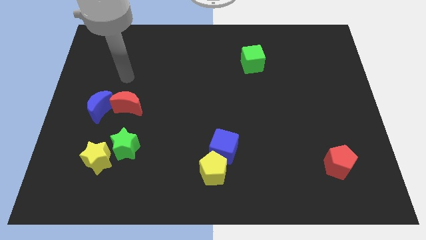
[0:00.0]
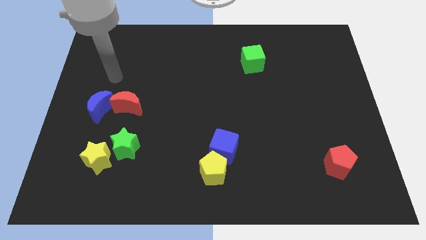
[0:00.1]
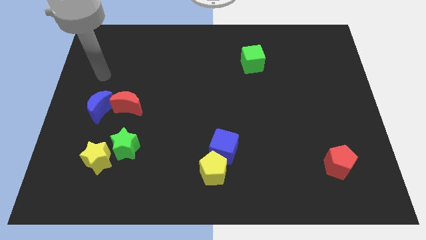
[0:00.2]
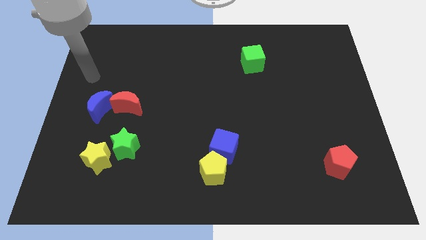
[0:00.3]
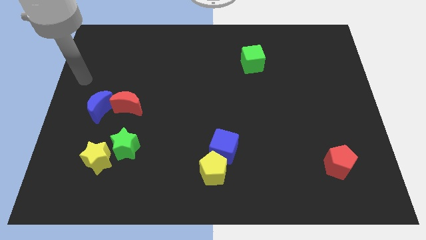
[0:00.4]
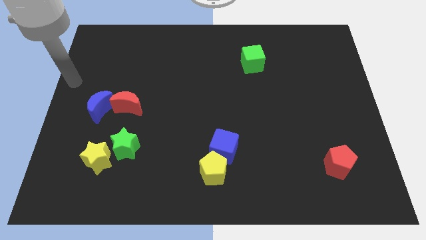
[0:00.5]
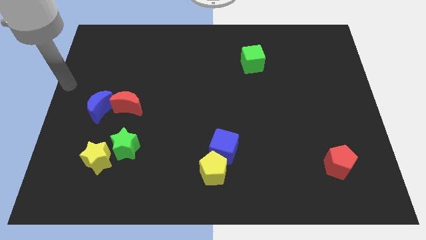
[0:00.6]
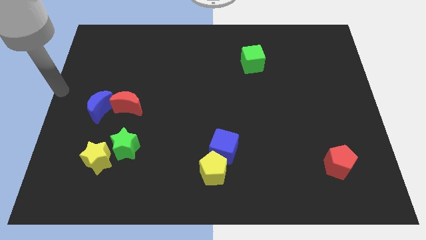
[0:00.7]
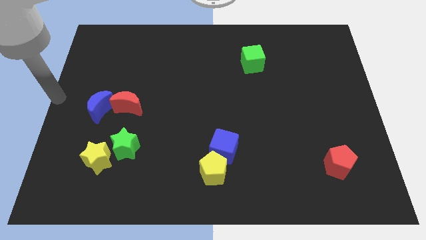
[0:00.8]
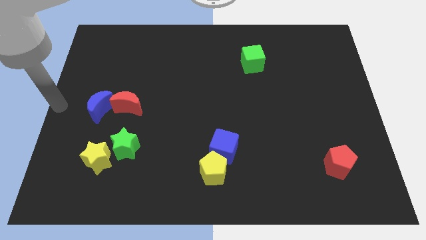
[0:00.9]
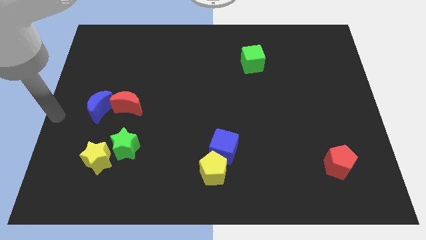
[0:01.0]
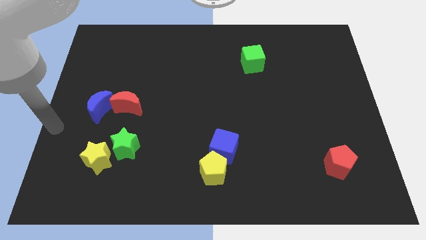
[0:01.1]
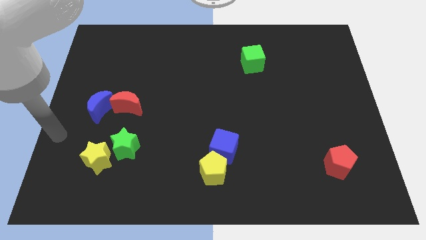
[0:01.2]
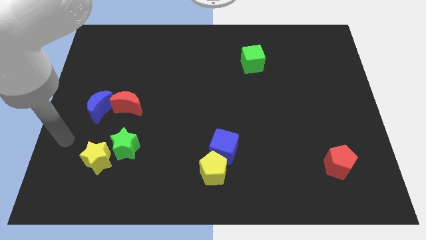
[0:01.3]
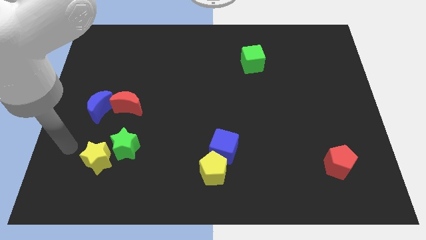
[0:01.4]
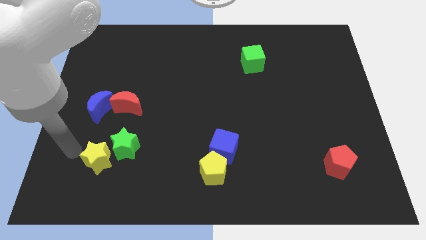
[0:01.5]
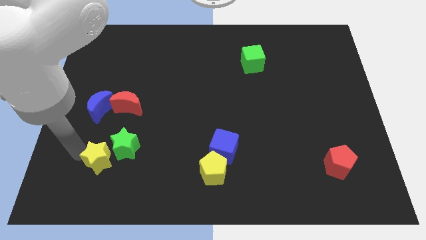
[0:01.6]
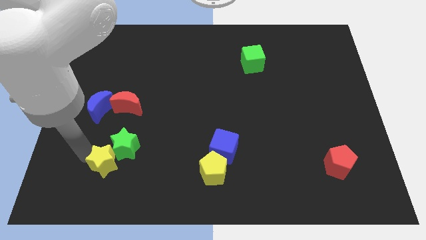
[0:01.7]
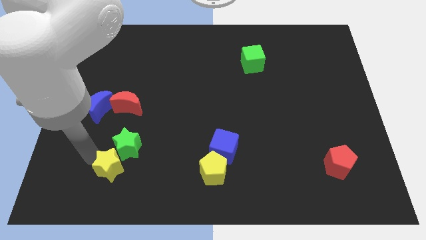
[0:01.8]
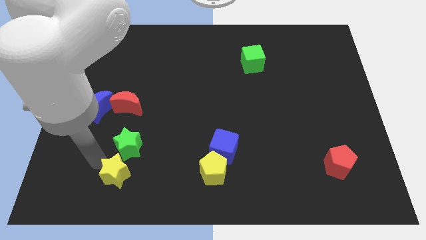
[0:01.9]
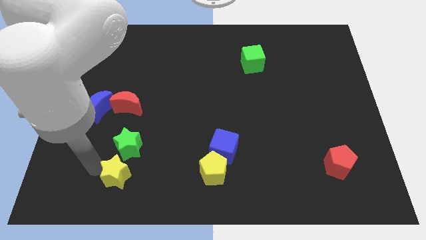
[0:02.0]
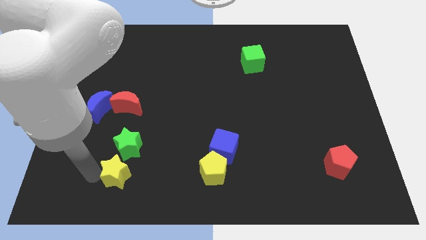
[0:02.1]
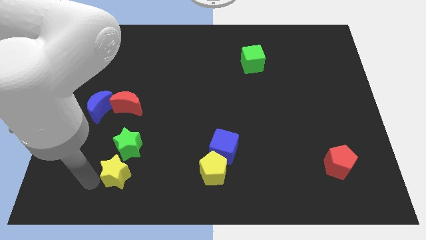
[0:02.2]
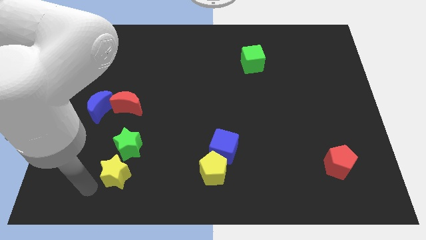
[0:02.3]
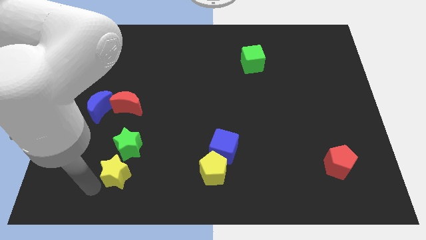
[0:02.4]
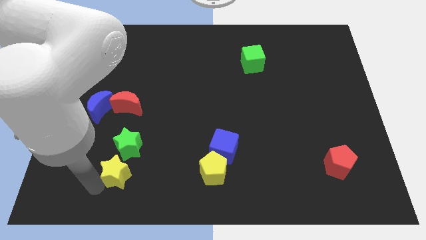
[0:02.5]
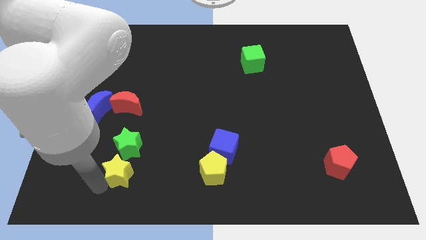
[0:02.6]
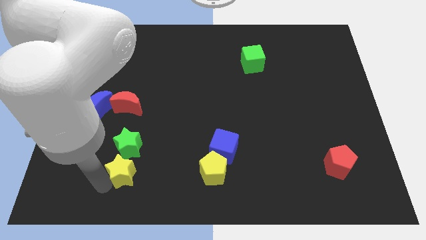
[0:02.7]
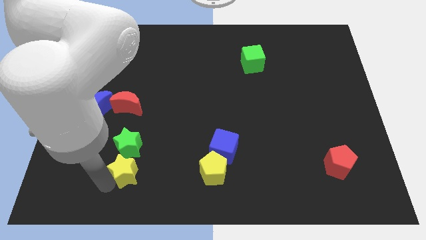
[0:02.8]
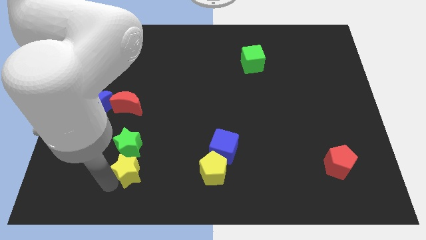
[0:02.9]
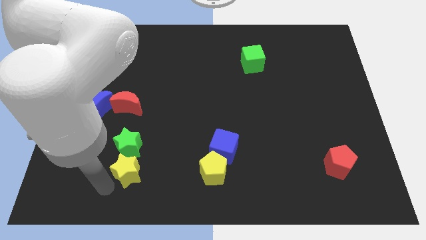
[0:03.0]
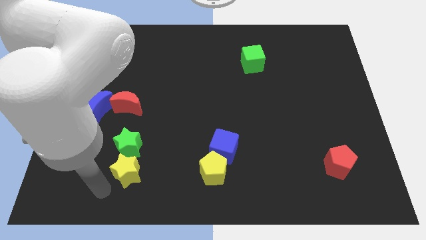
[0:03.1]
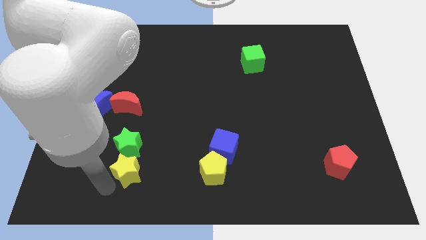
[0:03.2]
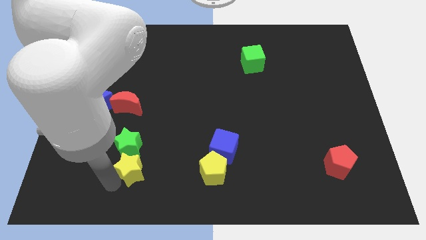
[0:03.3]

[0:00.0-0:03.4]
slightly push the yellow star to the right

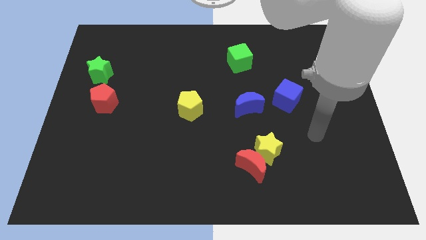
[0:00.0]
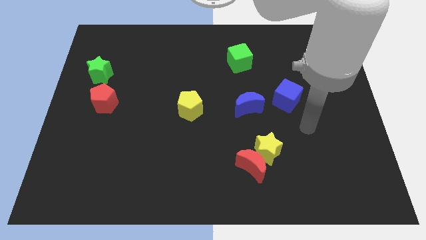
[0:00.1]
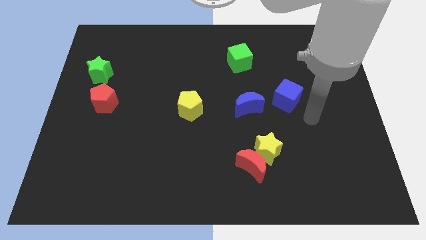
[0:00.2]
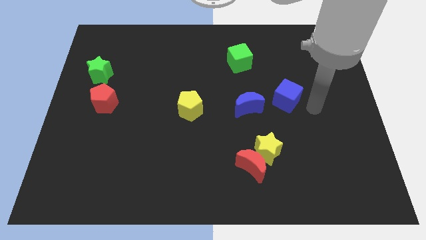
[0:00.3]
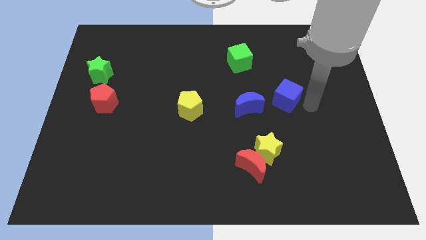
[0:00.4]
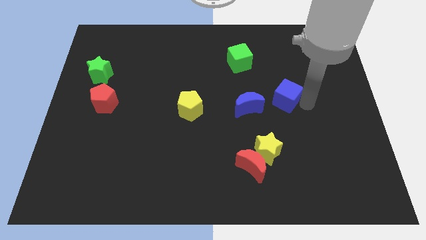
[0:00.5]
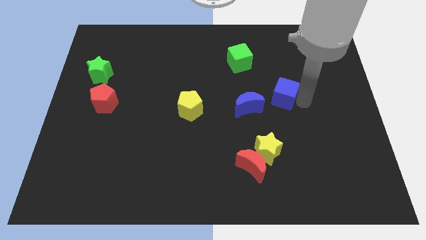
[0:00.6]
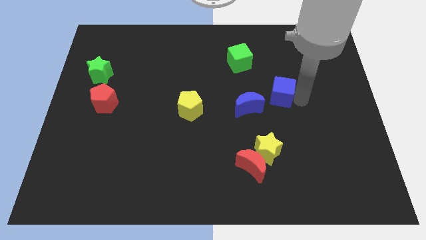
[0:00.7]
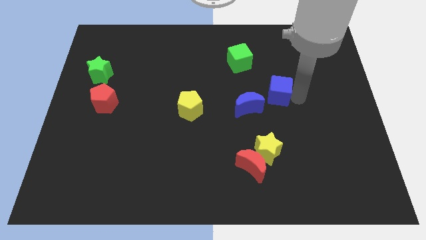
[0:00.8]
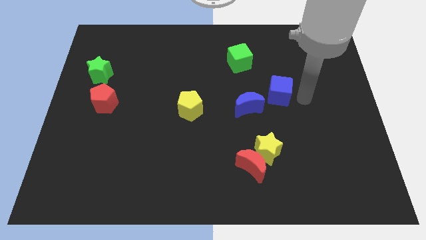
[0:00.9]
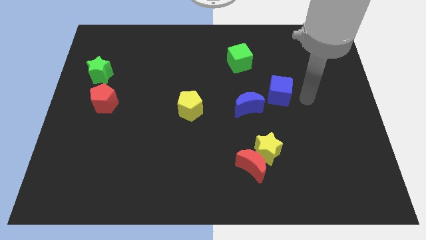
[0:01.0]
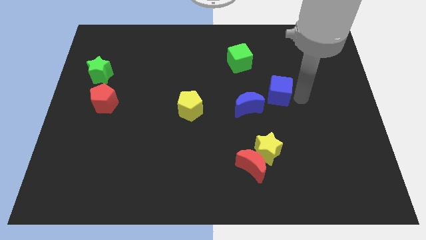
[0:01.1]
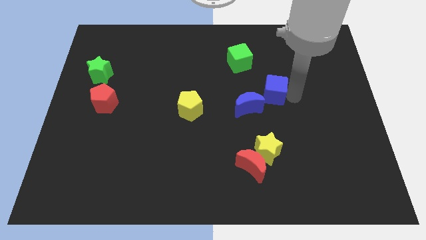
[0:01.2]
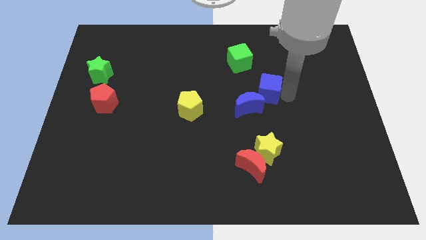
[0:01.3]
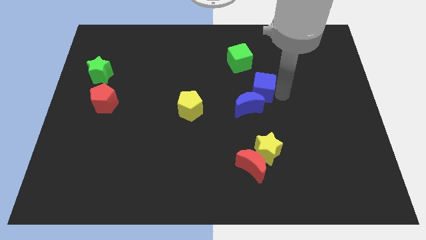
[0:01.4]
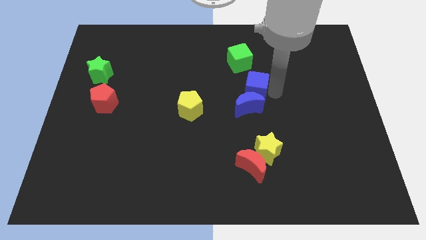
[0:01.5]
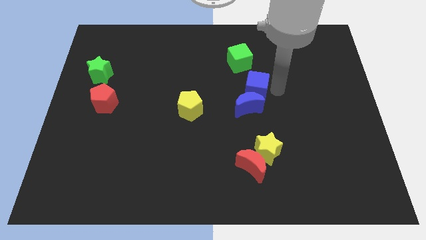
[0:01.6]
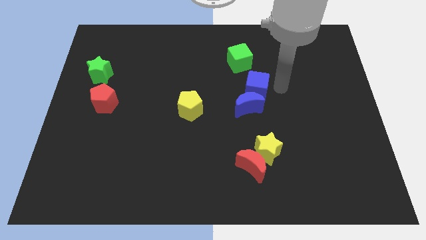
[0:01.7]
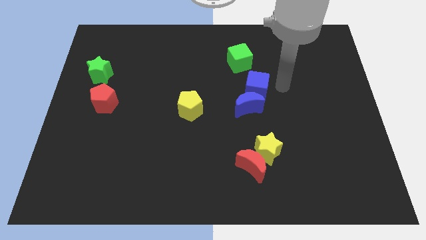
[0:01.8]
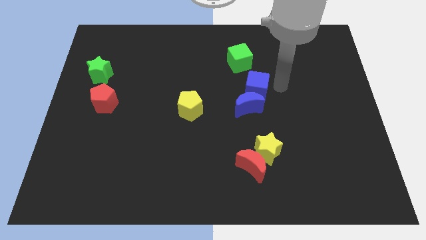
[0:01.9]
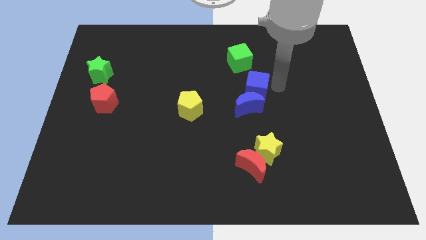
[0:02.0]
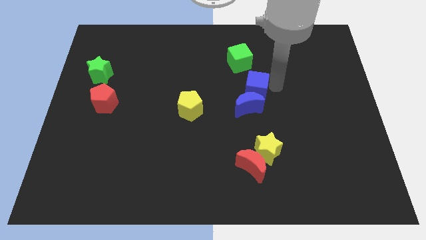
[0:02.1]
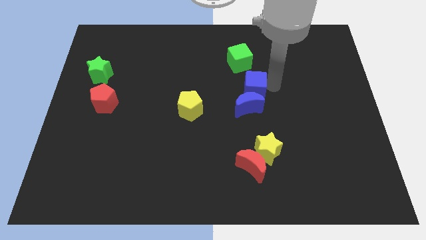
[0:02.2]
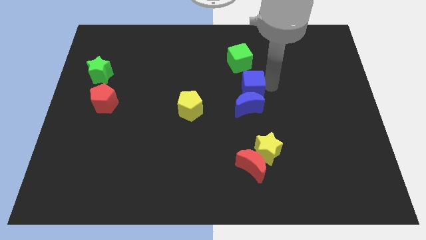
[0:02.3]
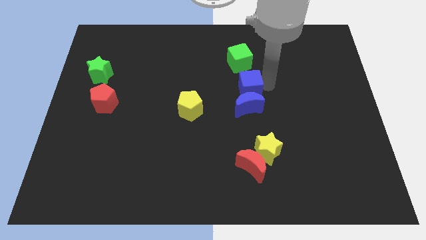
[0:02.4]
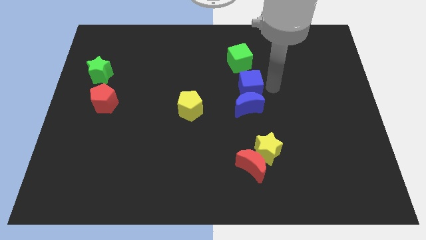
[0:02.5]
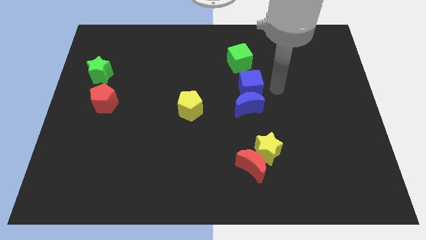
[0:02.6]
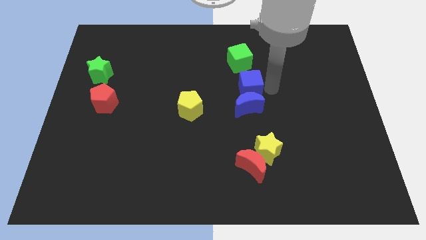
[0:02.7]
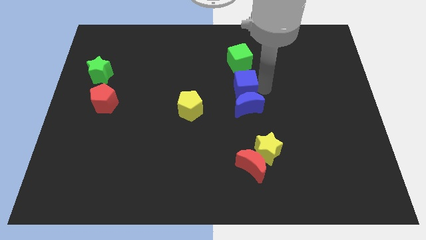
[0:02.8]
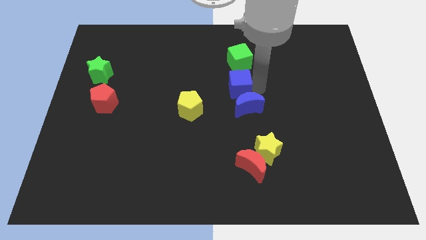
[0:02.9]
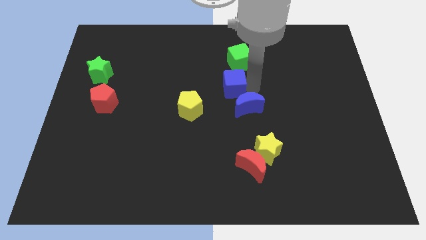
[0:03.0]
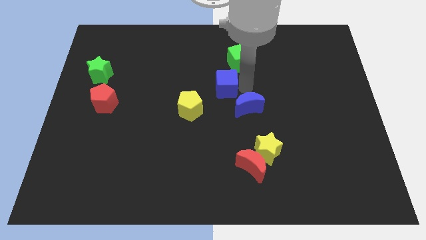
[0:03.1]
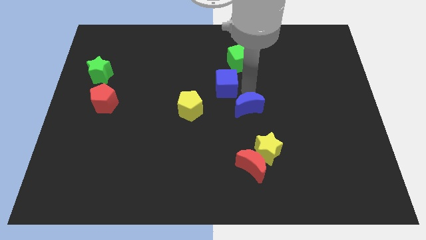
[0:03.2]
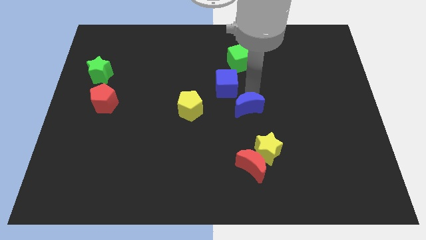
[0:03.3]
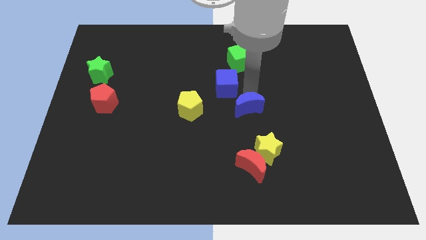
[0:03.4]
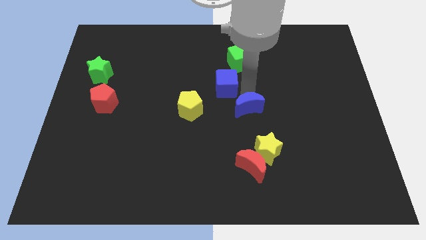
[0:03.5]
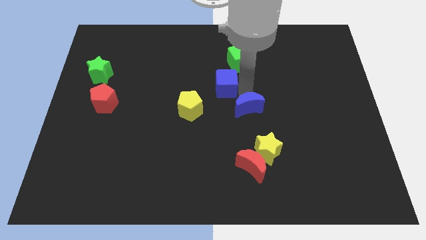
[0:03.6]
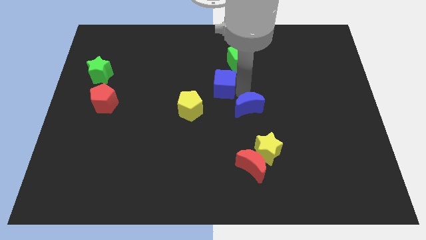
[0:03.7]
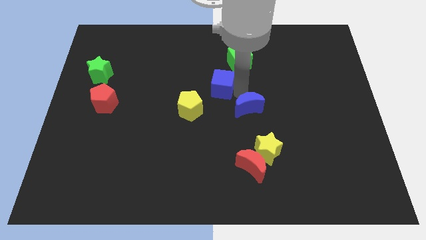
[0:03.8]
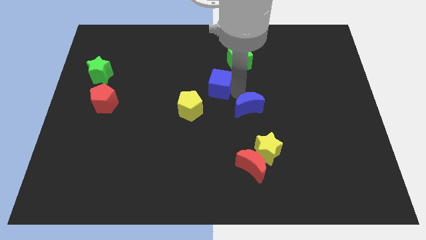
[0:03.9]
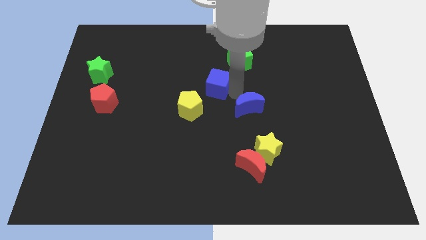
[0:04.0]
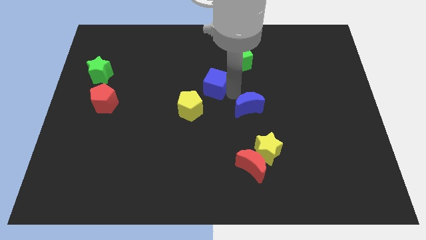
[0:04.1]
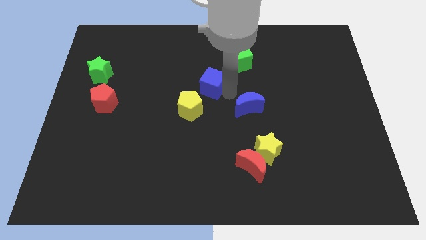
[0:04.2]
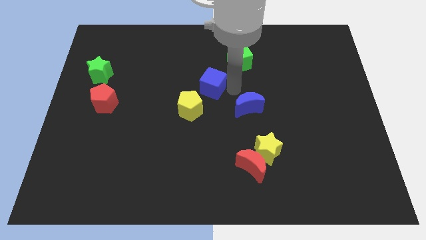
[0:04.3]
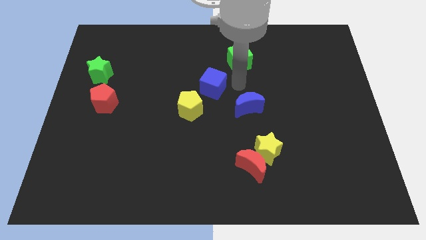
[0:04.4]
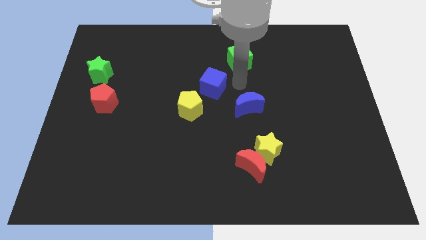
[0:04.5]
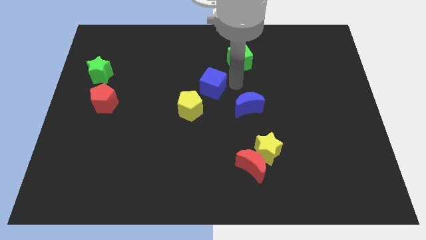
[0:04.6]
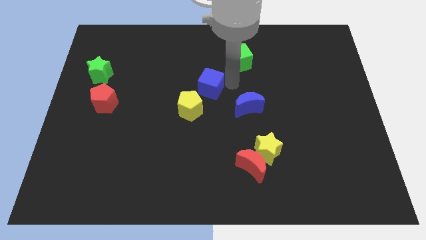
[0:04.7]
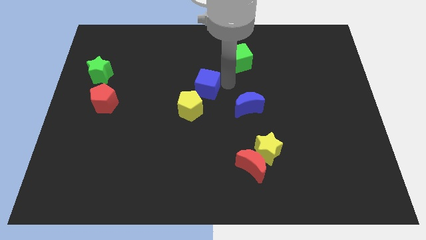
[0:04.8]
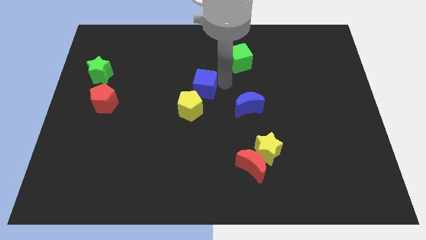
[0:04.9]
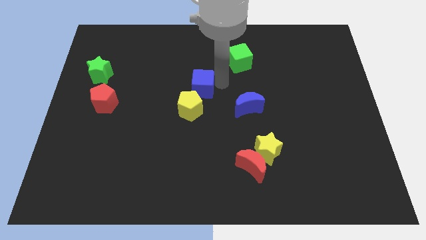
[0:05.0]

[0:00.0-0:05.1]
push the blue cube left
